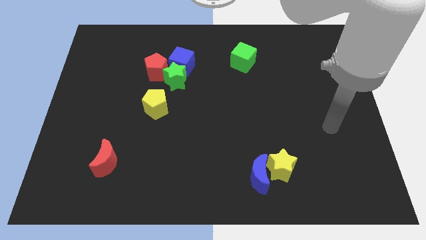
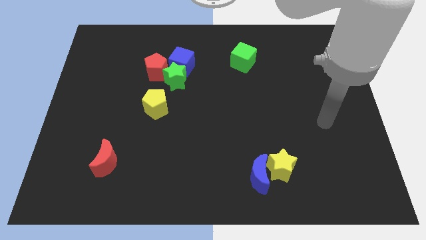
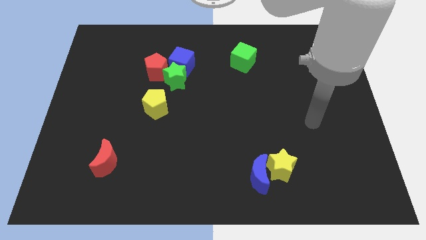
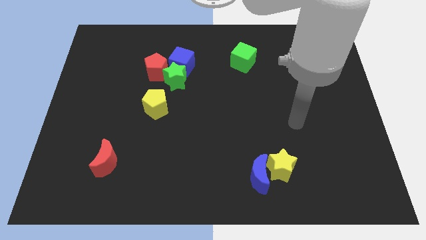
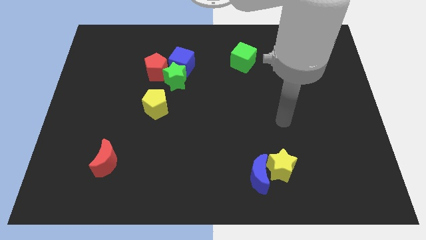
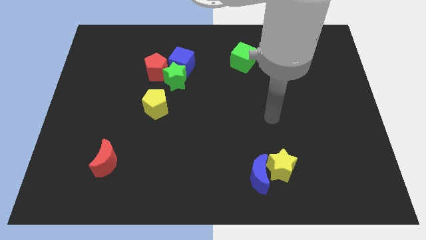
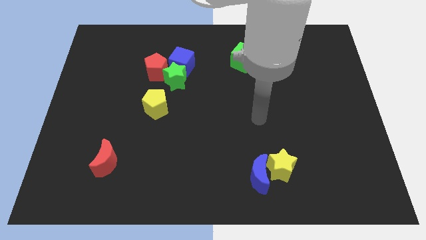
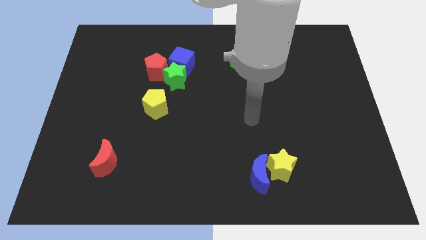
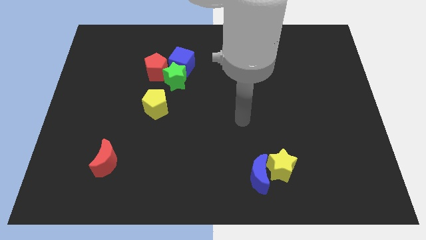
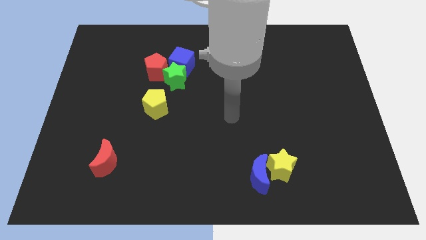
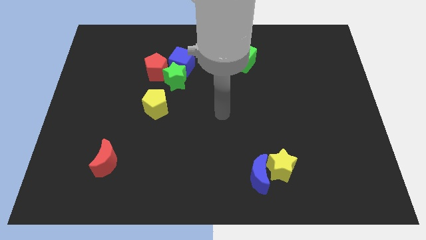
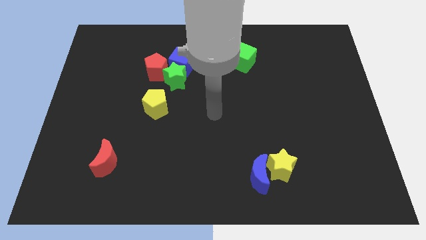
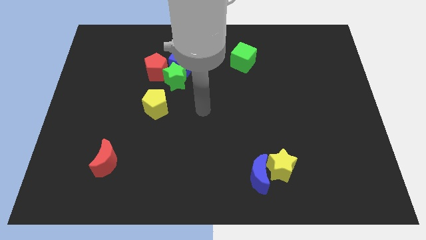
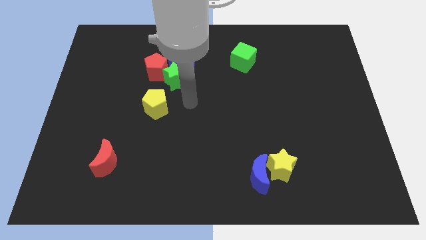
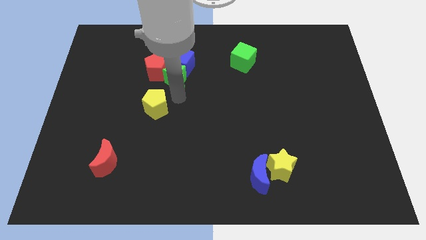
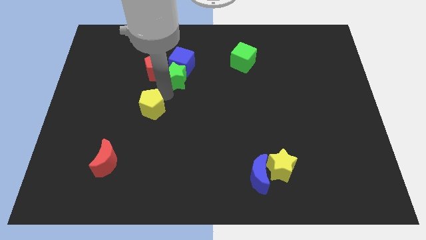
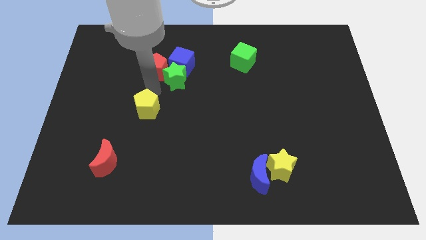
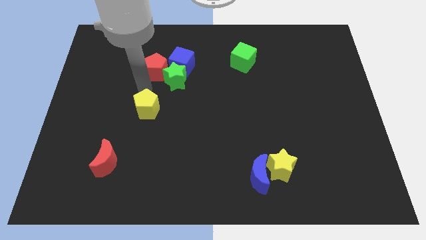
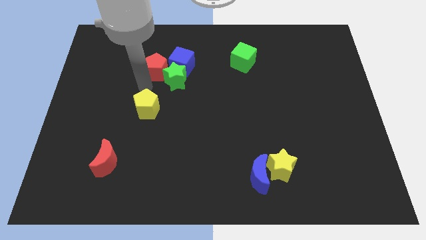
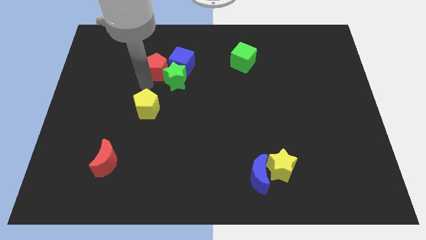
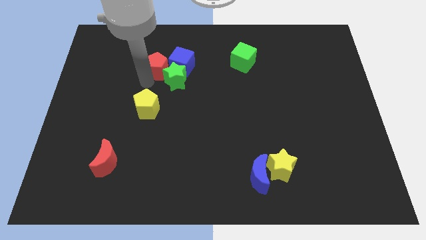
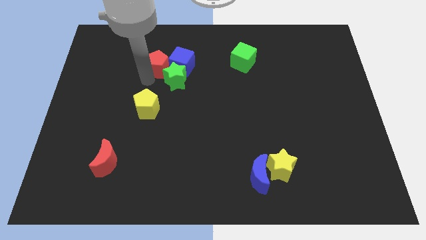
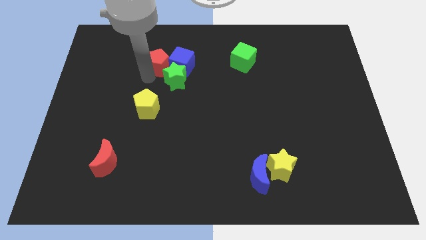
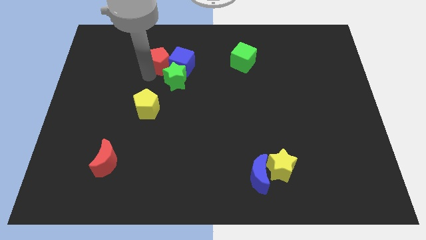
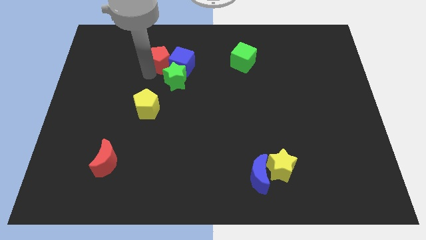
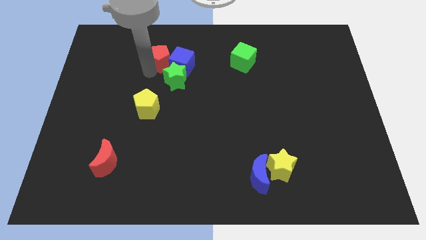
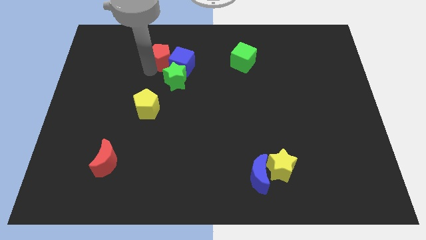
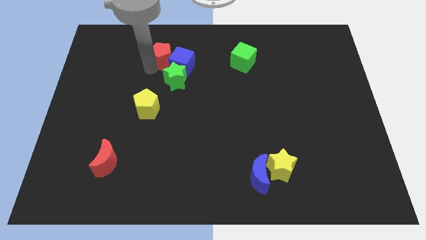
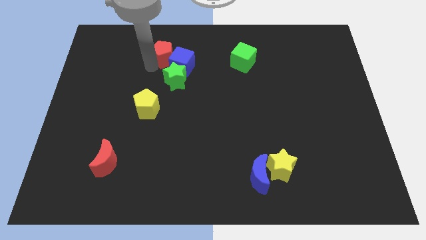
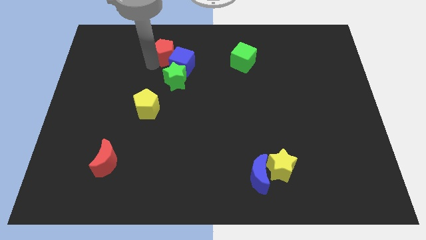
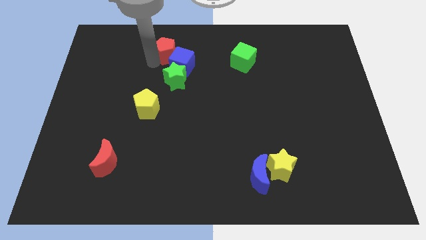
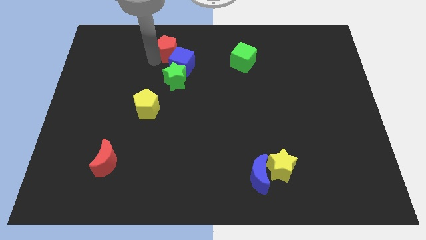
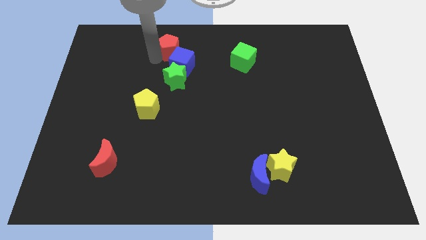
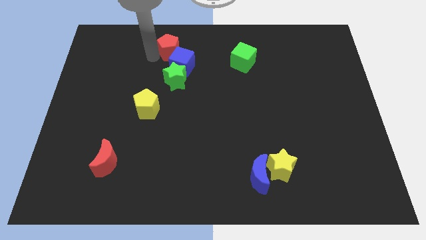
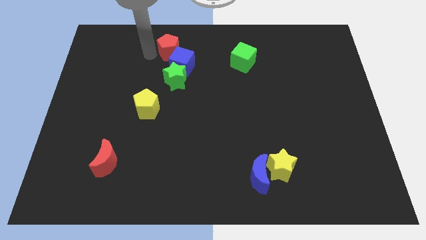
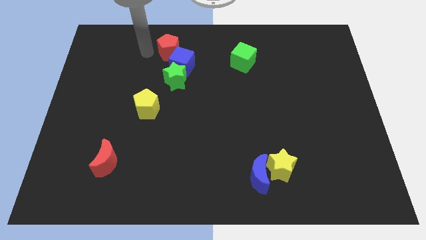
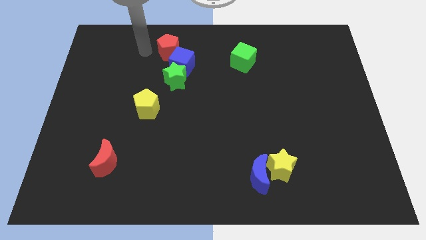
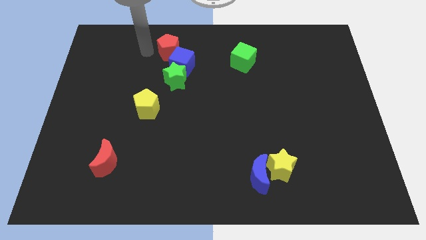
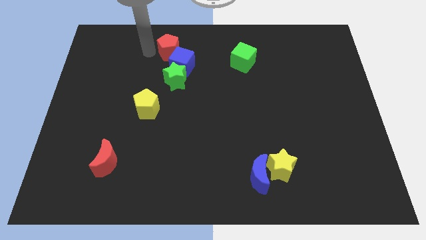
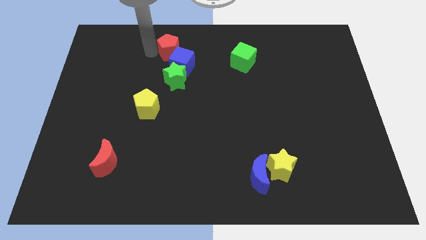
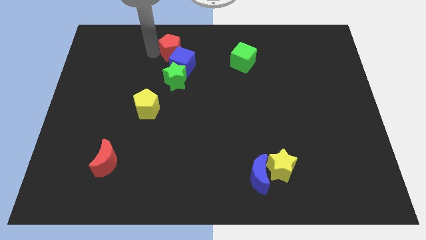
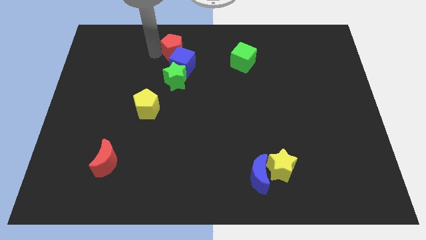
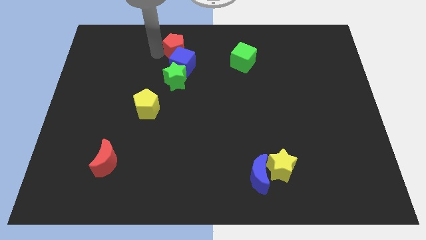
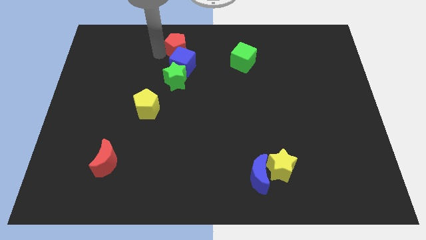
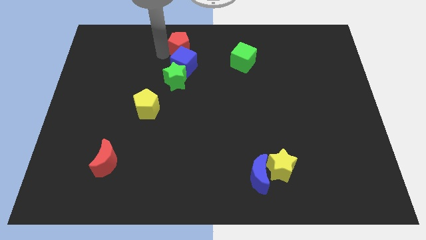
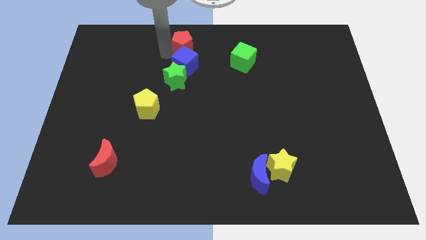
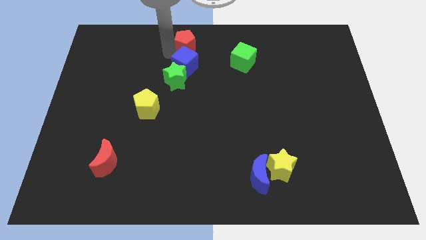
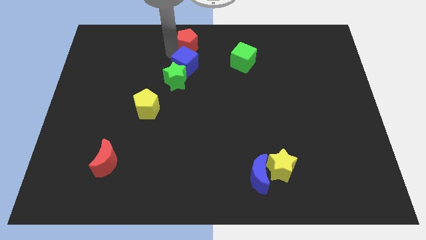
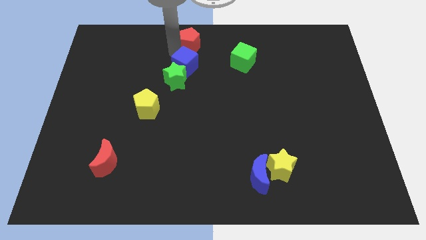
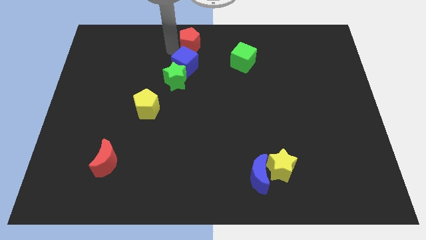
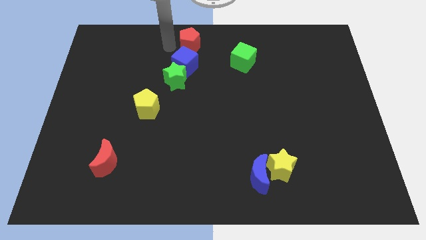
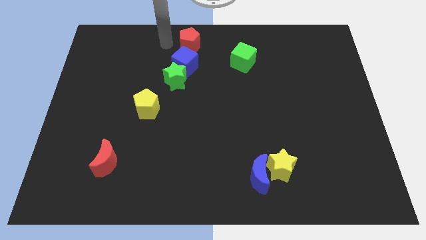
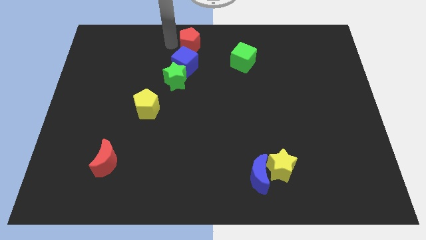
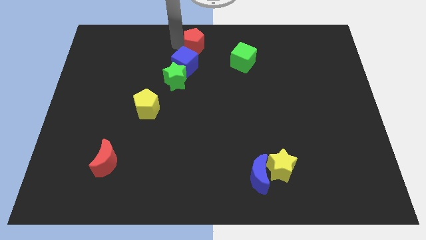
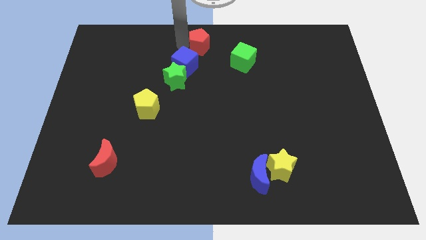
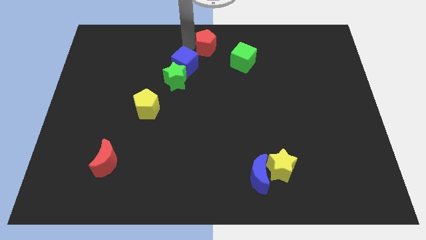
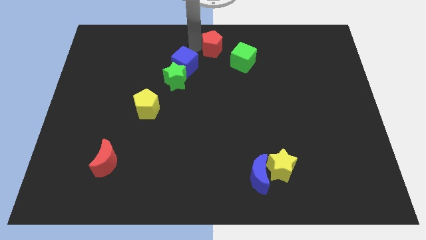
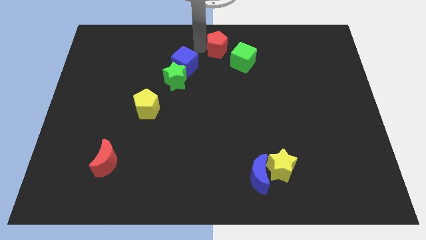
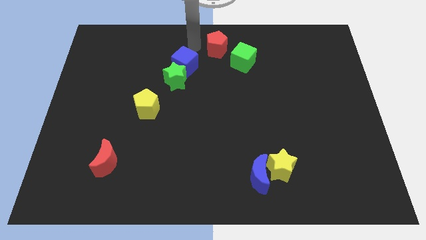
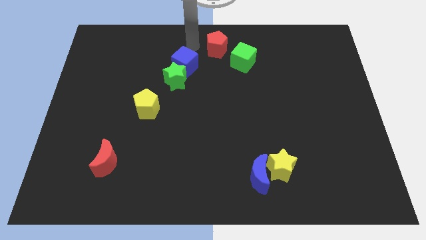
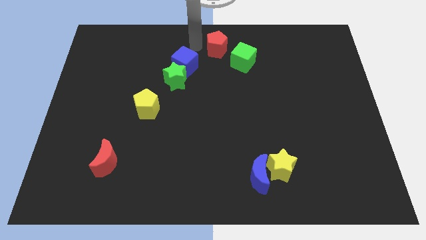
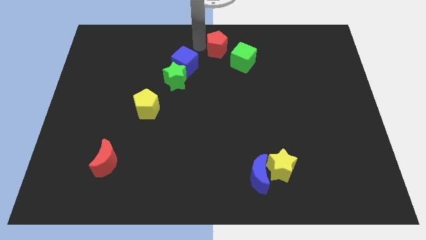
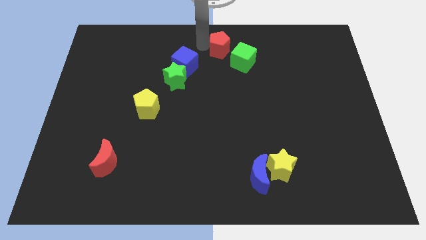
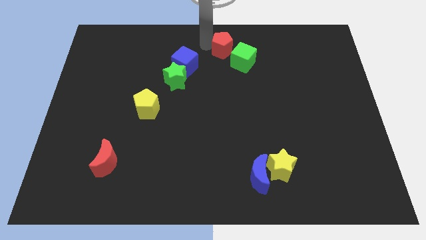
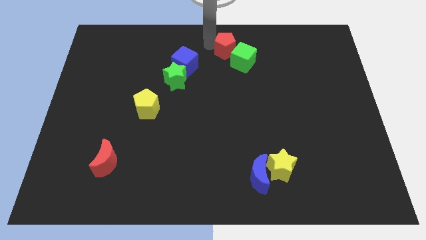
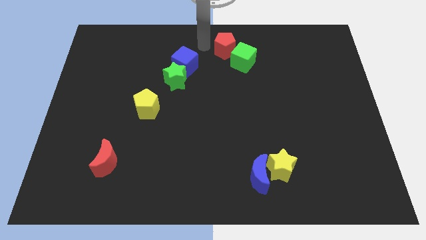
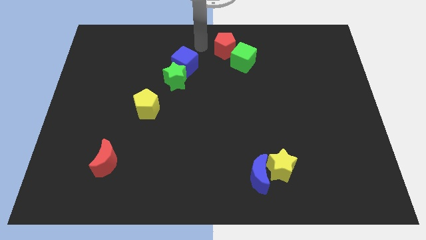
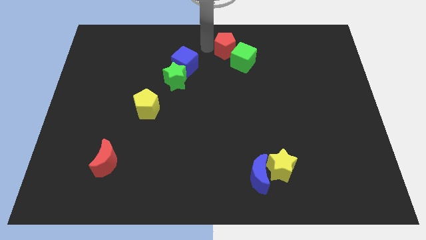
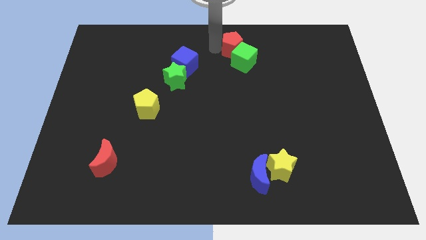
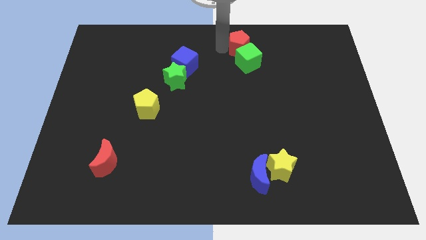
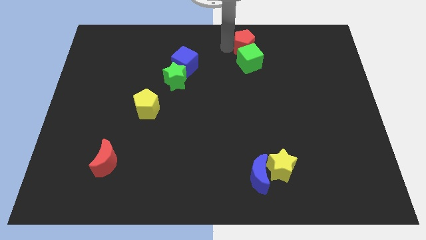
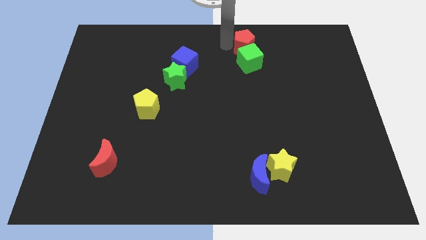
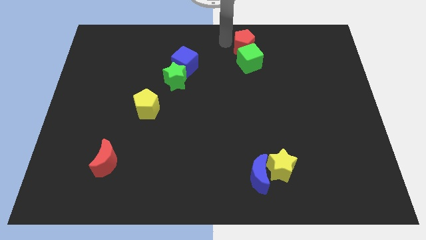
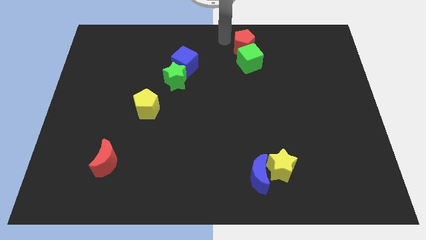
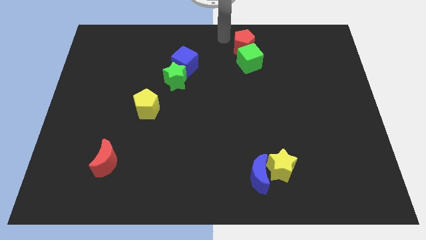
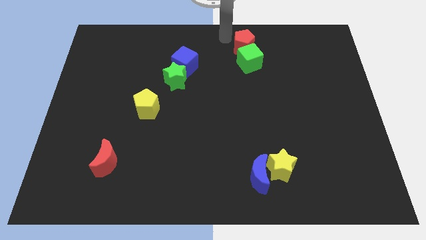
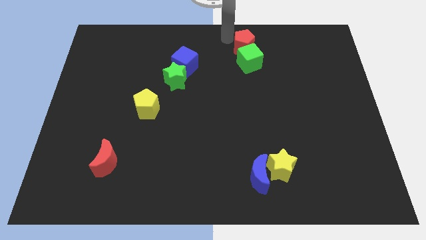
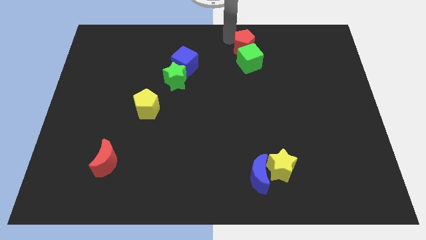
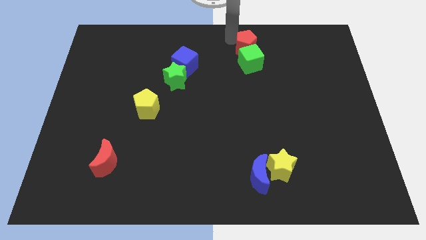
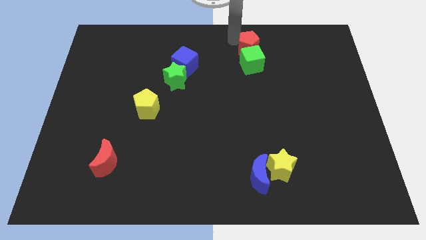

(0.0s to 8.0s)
push the red pentagon to the right

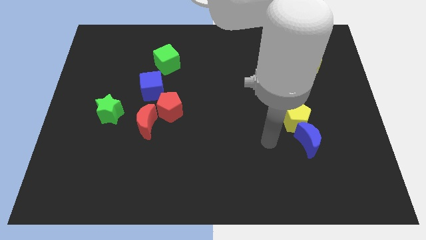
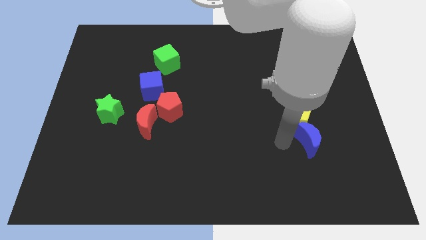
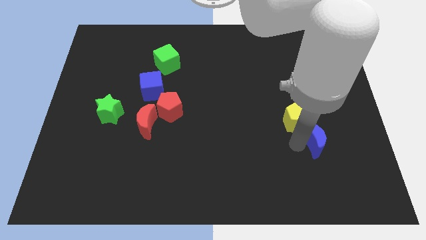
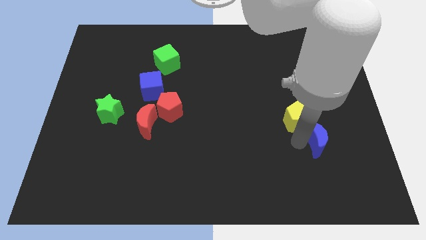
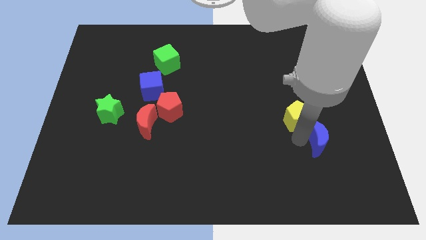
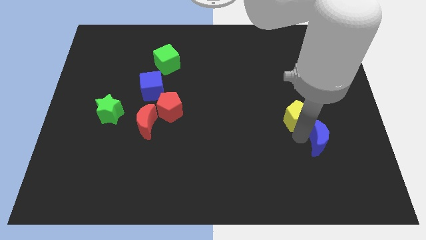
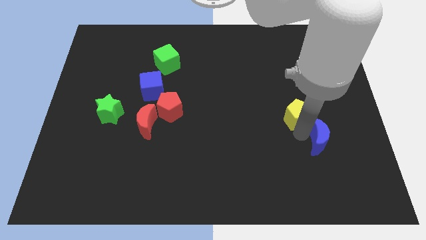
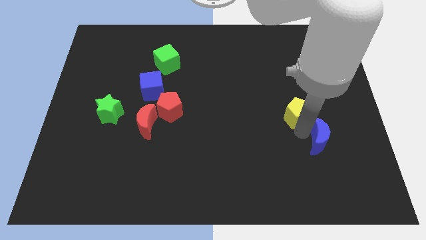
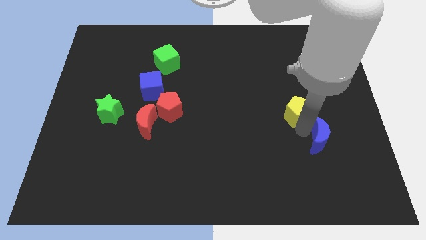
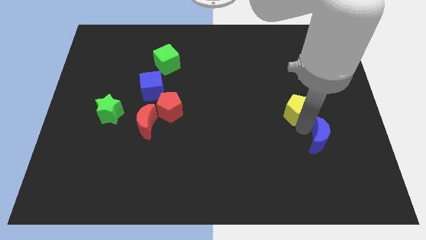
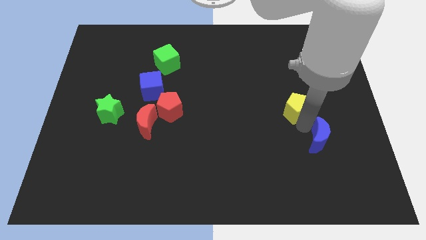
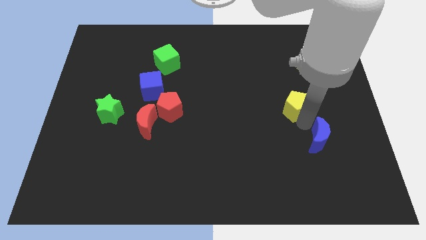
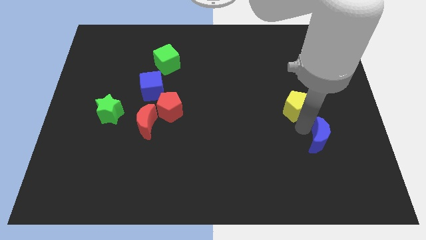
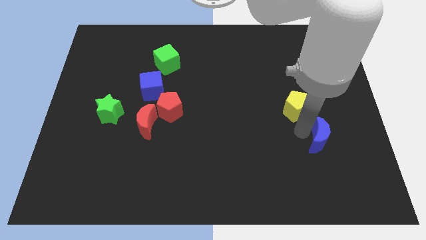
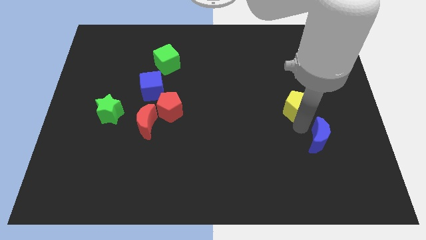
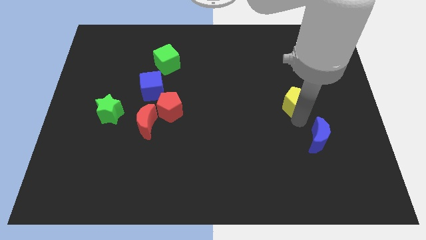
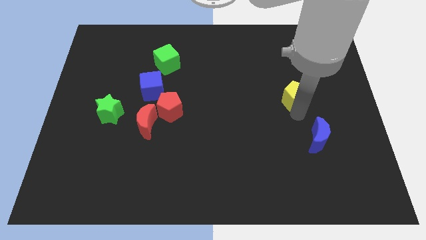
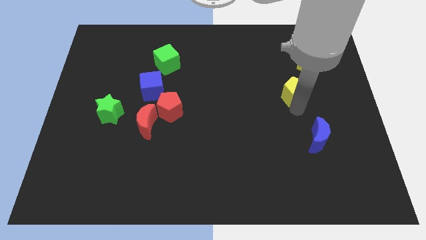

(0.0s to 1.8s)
slightly push the yellow pentagon upwards
